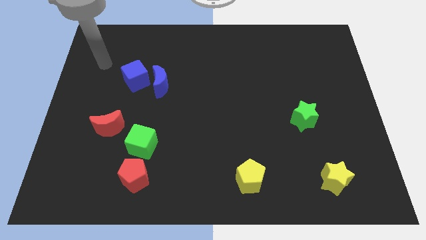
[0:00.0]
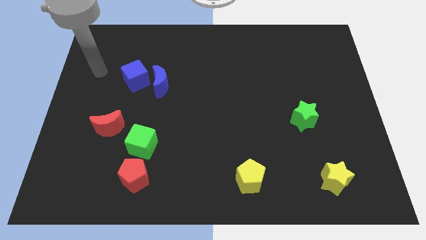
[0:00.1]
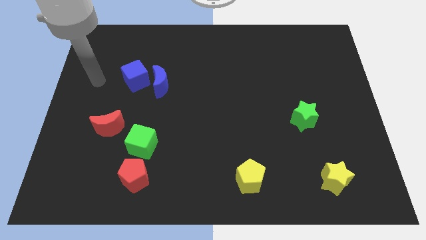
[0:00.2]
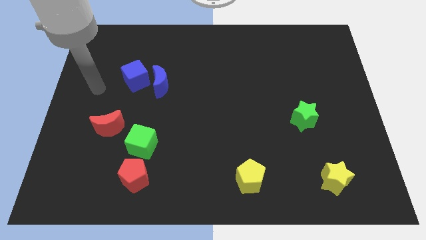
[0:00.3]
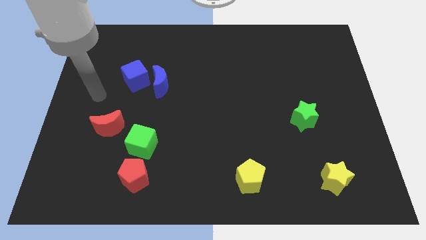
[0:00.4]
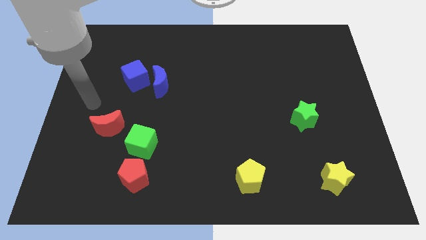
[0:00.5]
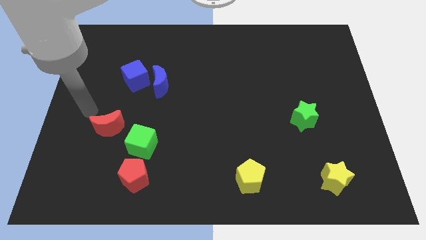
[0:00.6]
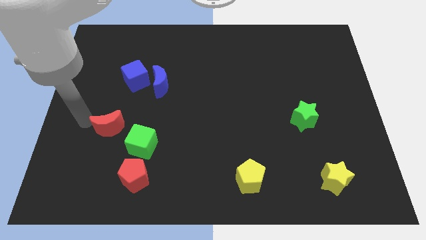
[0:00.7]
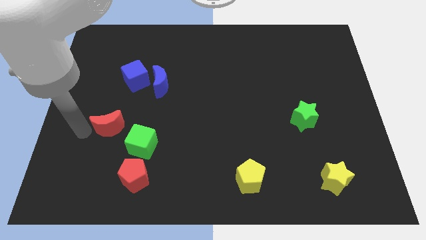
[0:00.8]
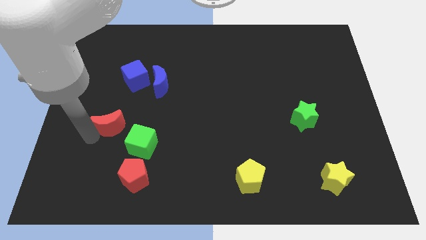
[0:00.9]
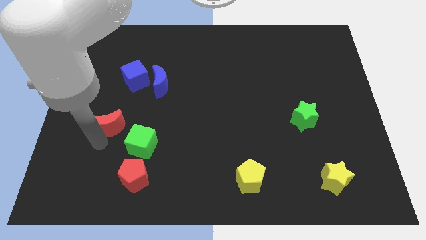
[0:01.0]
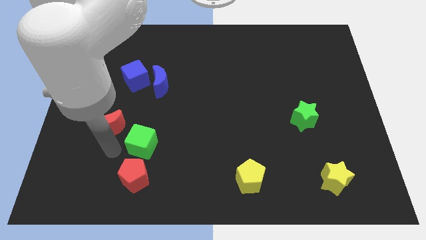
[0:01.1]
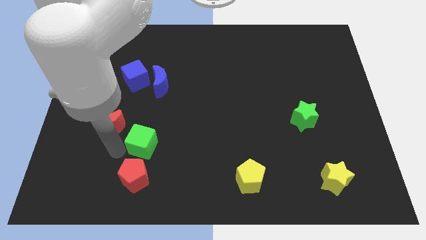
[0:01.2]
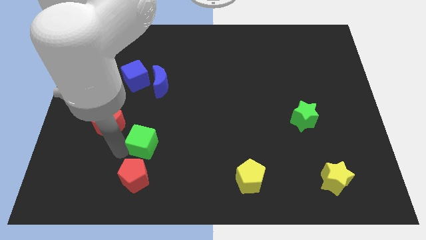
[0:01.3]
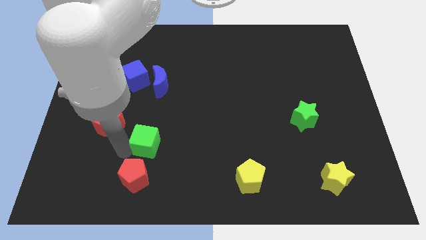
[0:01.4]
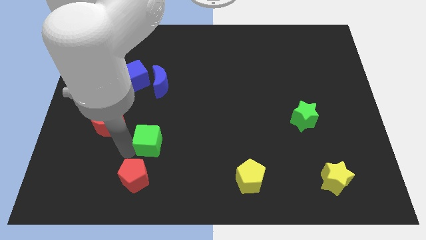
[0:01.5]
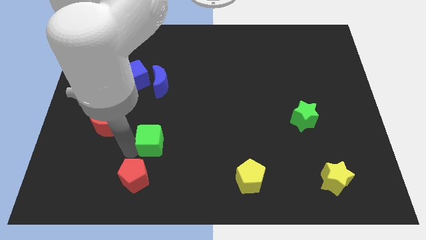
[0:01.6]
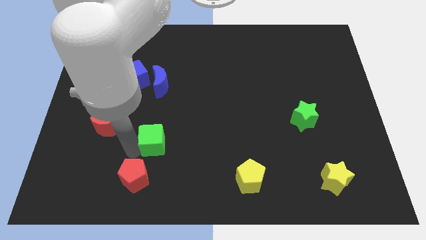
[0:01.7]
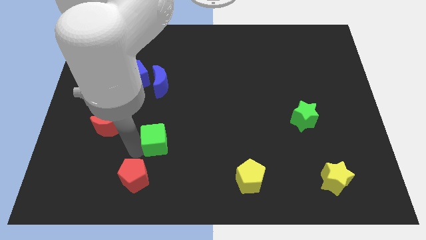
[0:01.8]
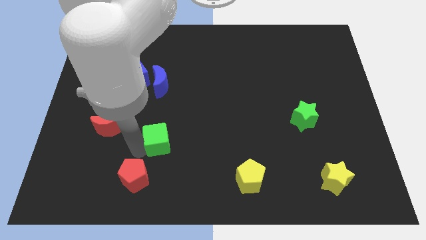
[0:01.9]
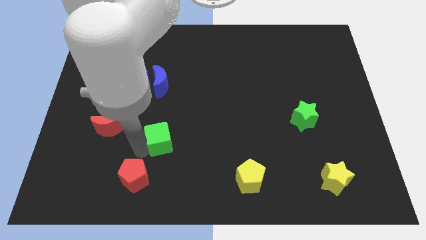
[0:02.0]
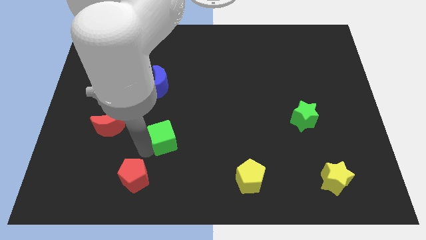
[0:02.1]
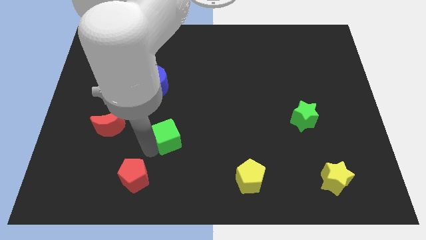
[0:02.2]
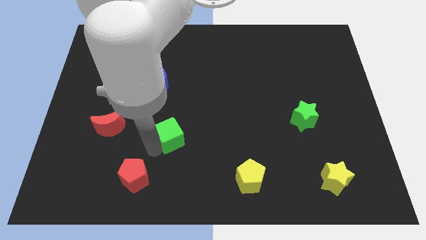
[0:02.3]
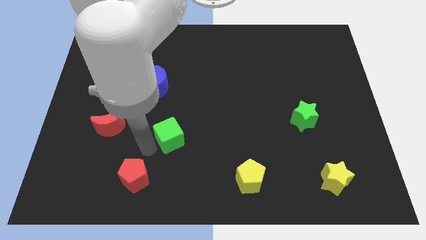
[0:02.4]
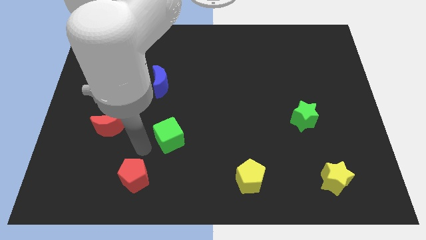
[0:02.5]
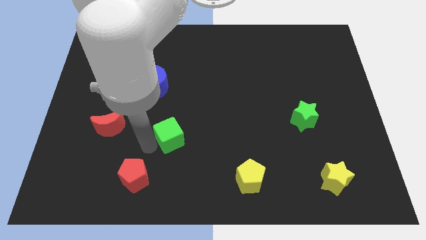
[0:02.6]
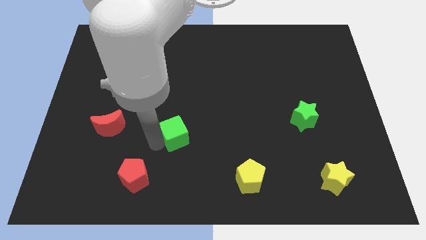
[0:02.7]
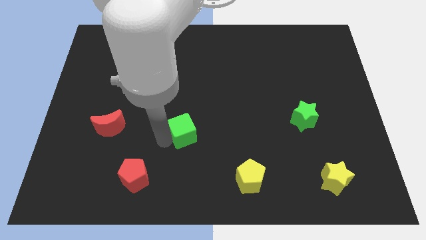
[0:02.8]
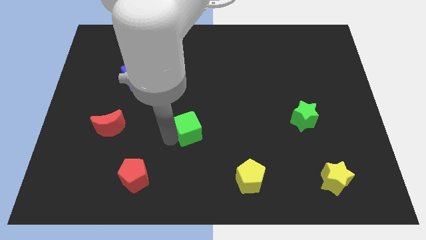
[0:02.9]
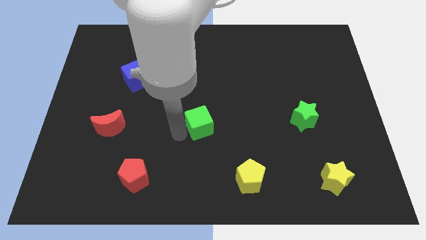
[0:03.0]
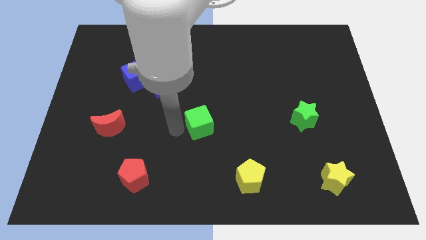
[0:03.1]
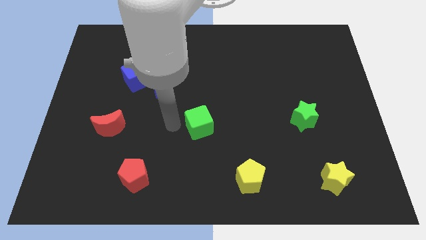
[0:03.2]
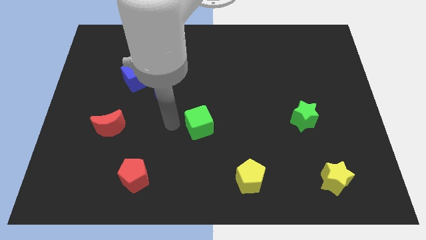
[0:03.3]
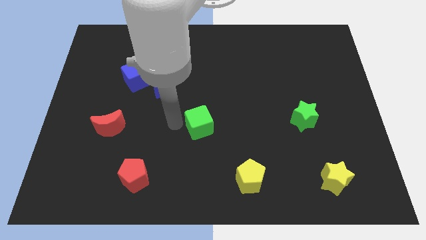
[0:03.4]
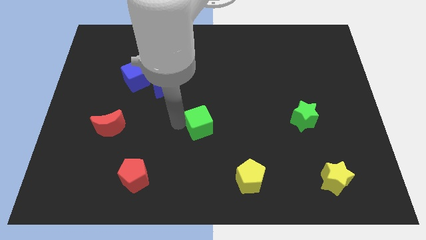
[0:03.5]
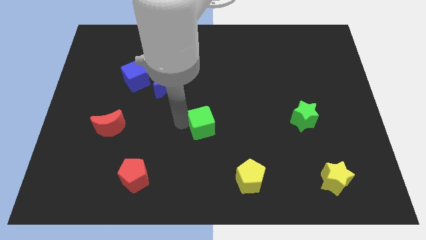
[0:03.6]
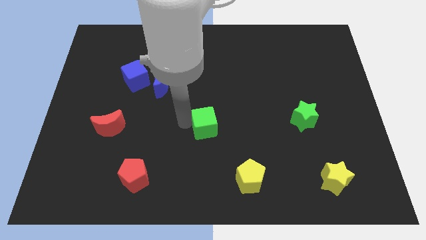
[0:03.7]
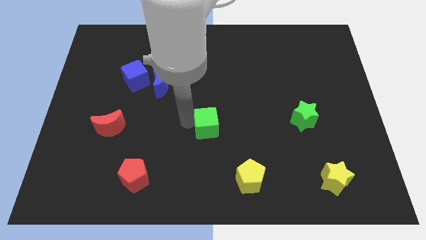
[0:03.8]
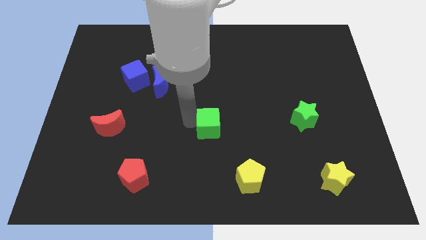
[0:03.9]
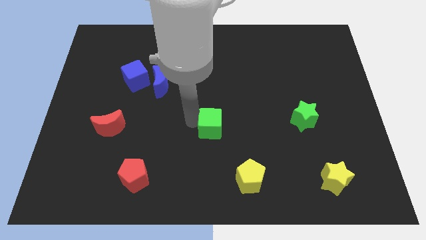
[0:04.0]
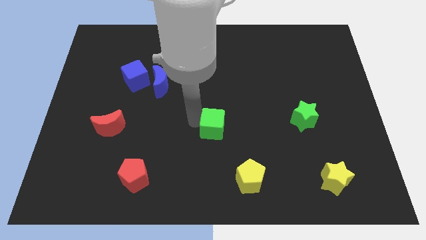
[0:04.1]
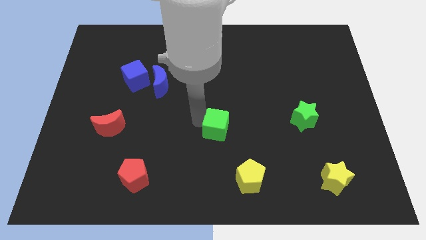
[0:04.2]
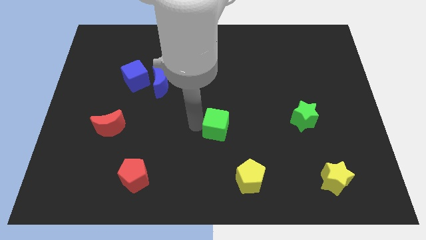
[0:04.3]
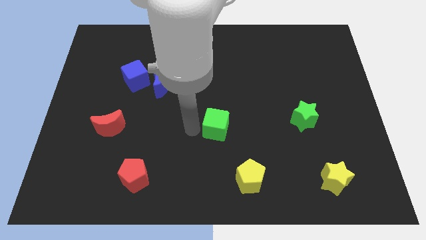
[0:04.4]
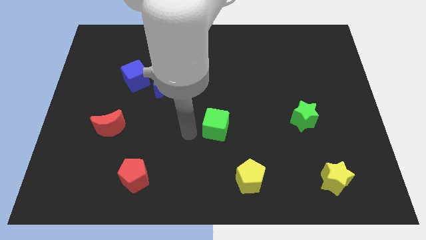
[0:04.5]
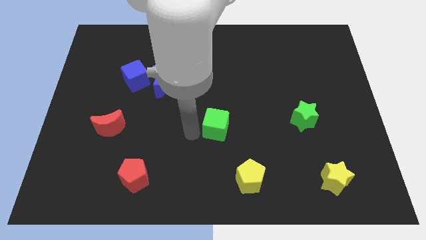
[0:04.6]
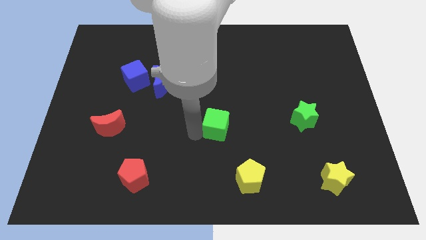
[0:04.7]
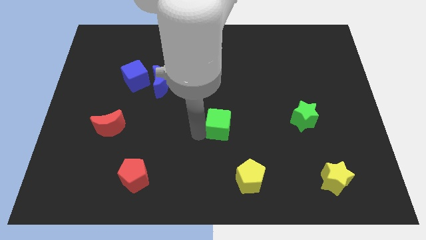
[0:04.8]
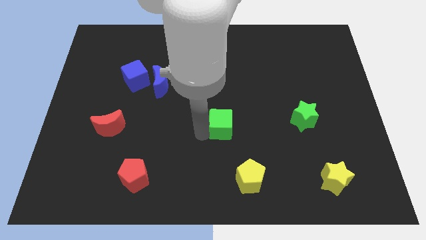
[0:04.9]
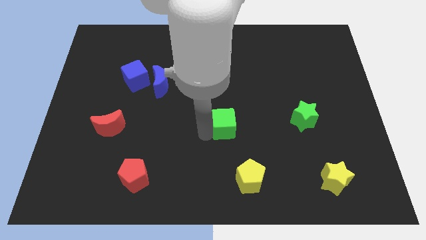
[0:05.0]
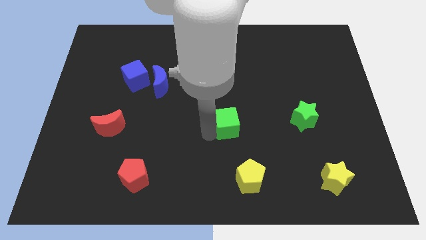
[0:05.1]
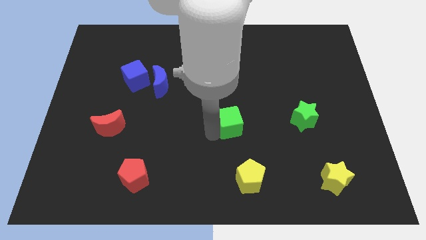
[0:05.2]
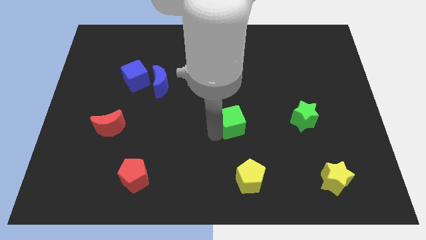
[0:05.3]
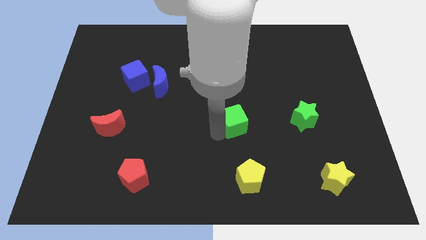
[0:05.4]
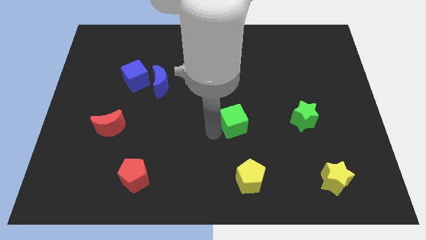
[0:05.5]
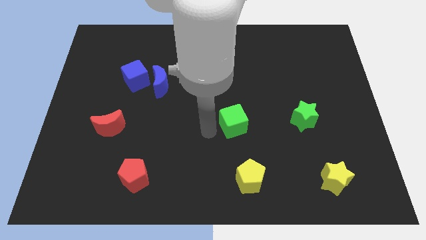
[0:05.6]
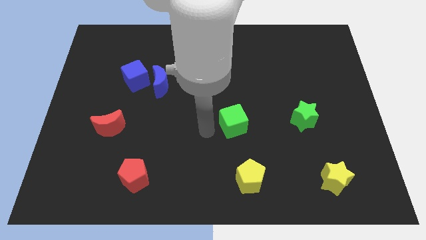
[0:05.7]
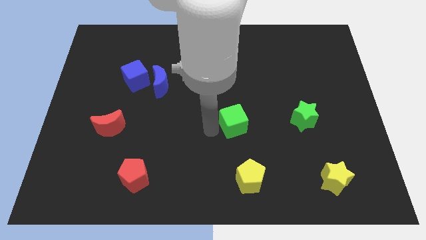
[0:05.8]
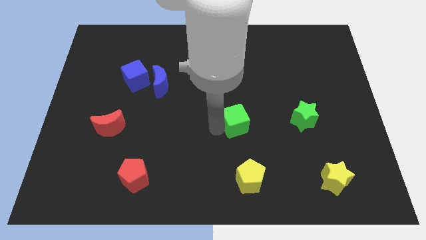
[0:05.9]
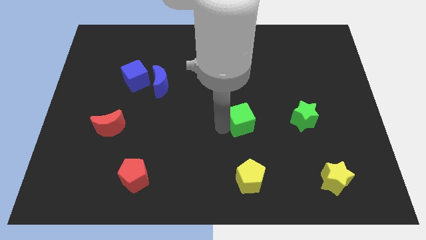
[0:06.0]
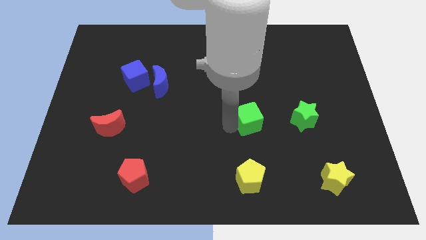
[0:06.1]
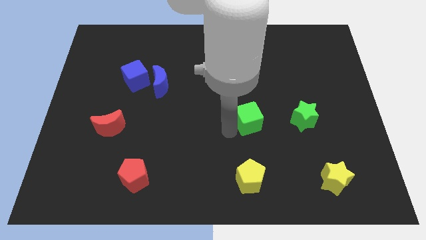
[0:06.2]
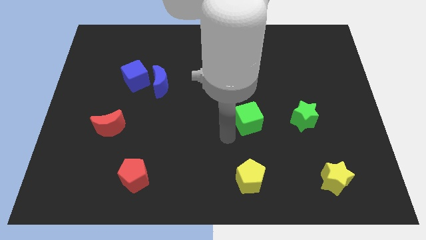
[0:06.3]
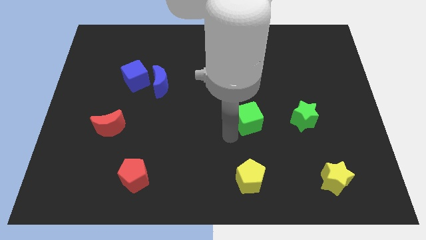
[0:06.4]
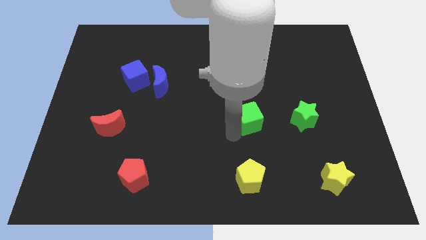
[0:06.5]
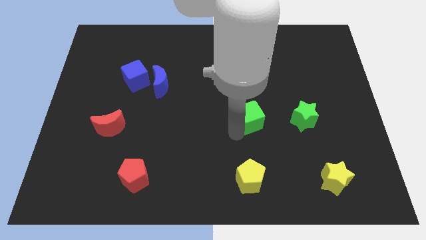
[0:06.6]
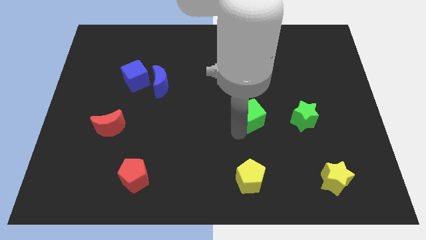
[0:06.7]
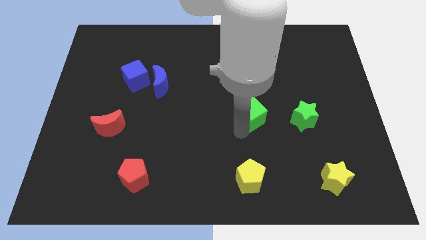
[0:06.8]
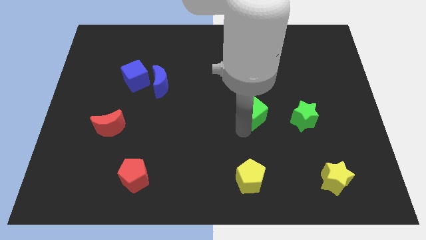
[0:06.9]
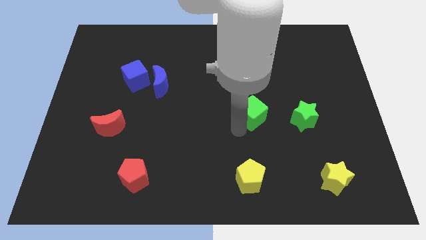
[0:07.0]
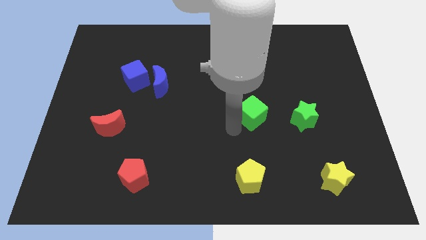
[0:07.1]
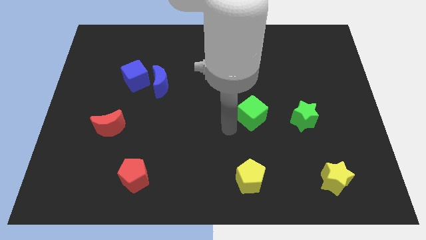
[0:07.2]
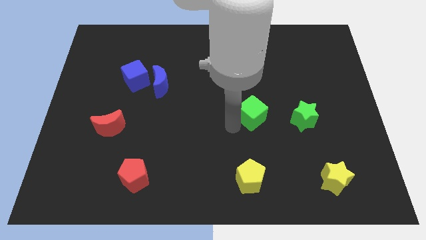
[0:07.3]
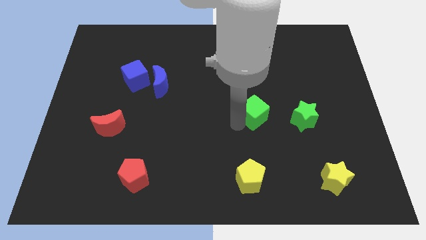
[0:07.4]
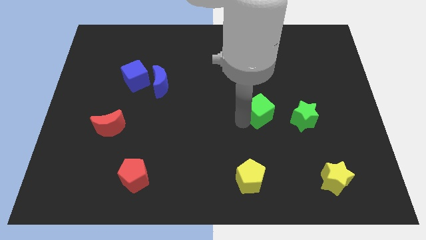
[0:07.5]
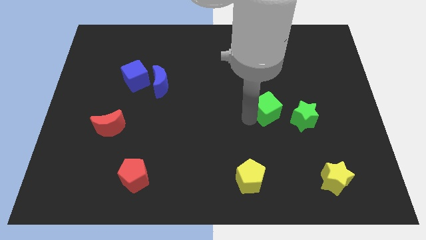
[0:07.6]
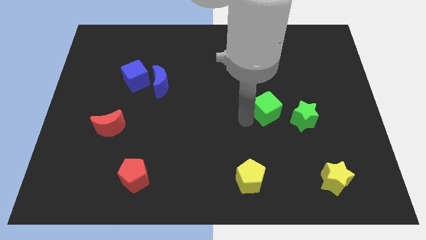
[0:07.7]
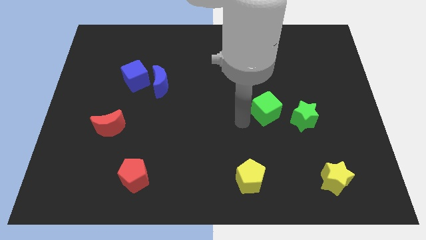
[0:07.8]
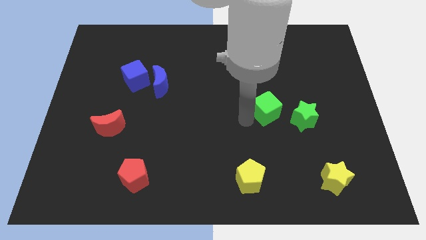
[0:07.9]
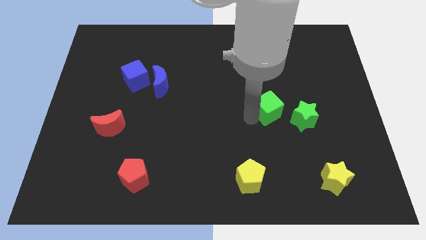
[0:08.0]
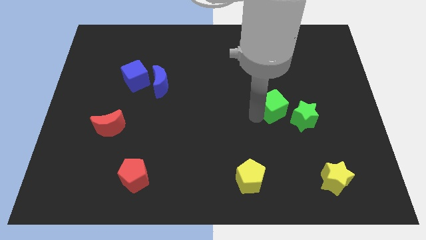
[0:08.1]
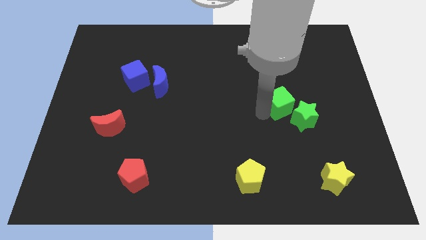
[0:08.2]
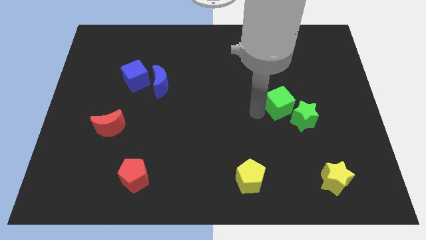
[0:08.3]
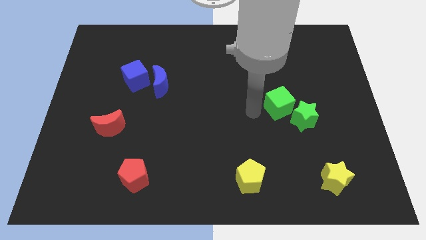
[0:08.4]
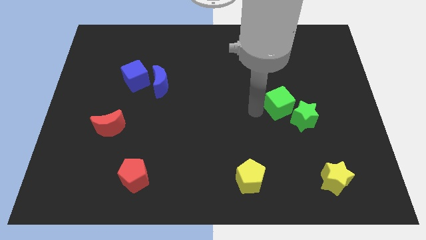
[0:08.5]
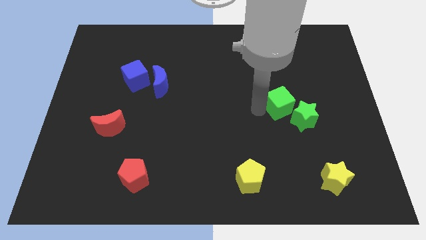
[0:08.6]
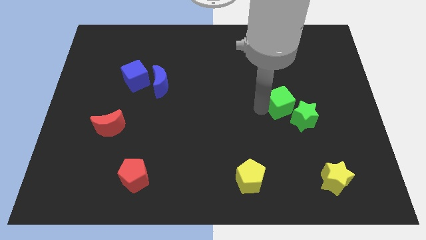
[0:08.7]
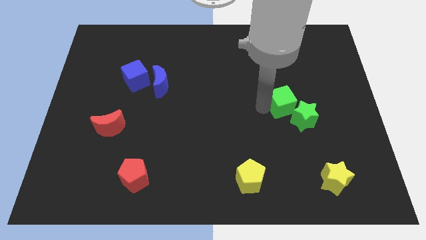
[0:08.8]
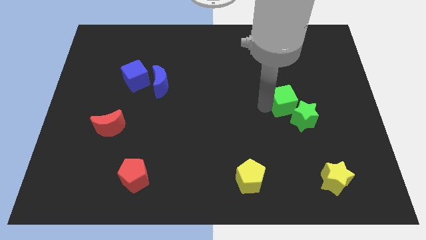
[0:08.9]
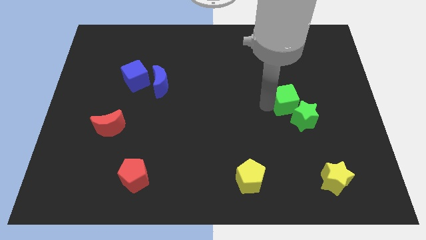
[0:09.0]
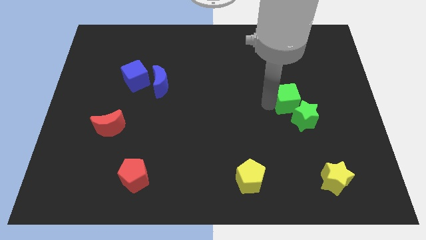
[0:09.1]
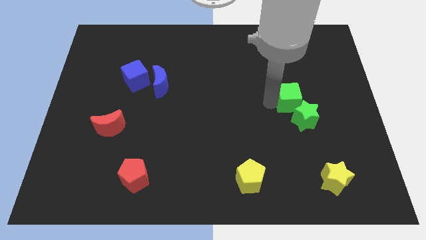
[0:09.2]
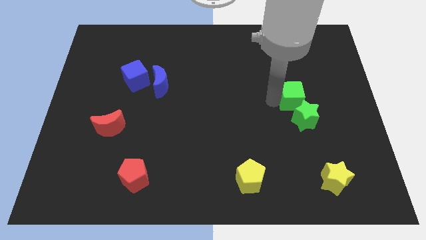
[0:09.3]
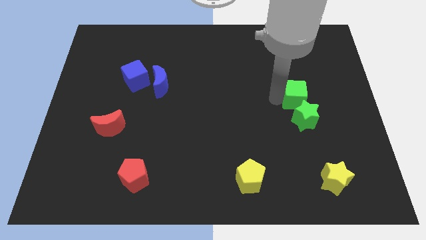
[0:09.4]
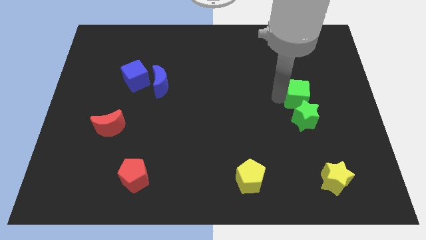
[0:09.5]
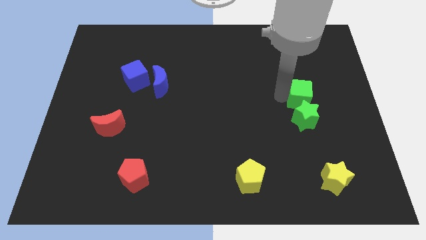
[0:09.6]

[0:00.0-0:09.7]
push the green cube to the top right of the green star
